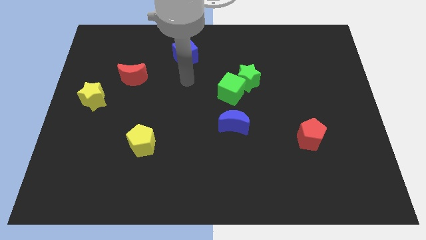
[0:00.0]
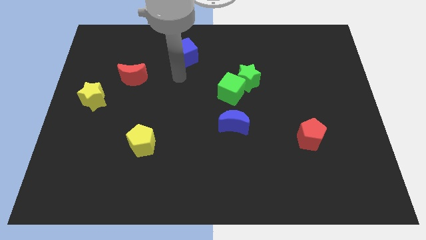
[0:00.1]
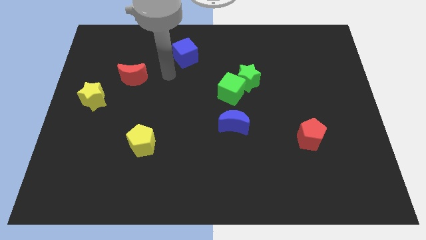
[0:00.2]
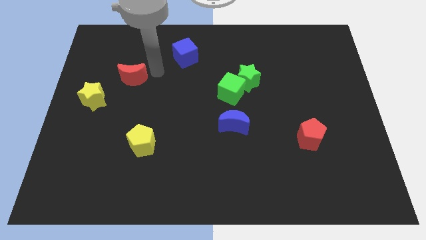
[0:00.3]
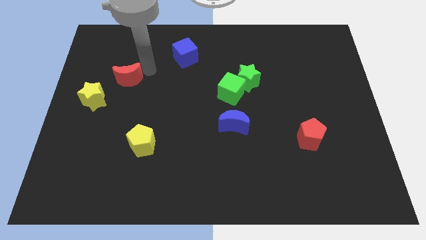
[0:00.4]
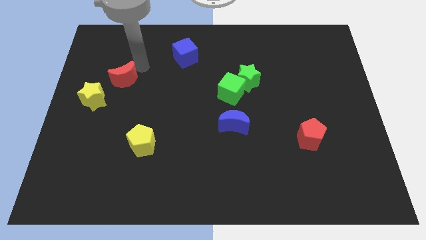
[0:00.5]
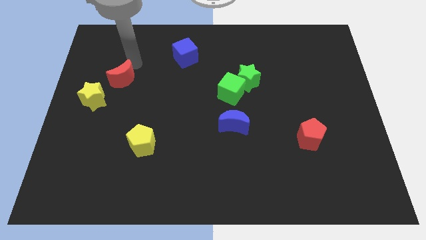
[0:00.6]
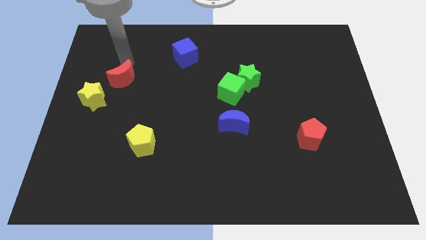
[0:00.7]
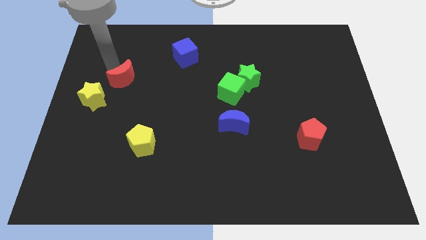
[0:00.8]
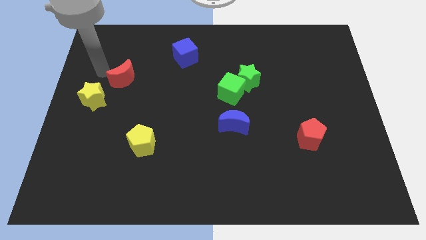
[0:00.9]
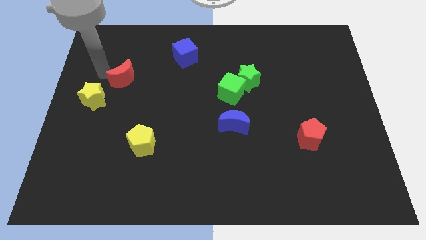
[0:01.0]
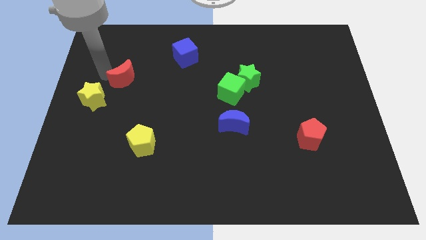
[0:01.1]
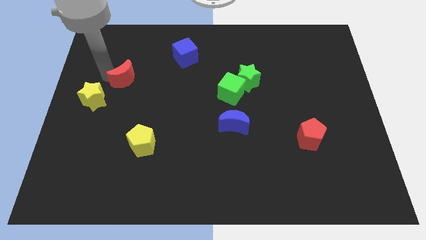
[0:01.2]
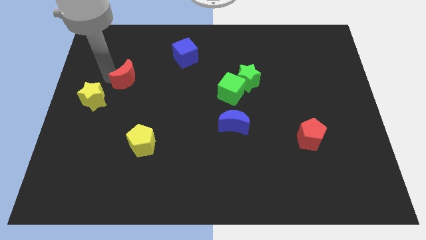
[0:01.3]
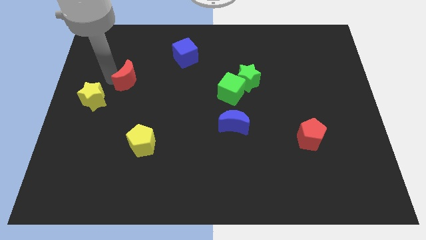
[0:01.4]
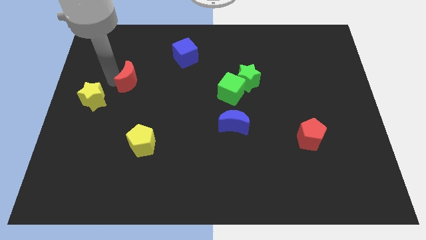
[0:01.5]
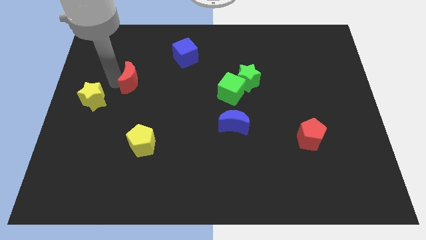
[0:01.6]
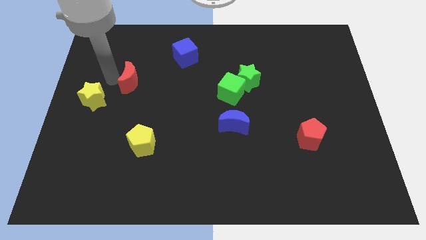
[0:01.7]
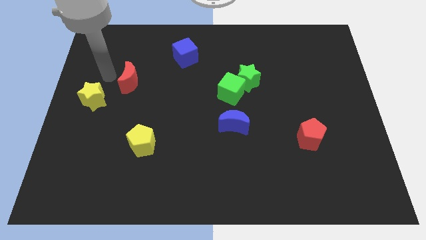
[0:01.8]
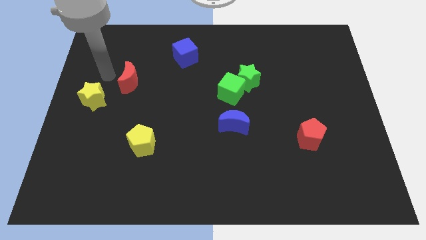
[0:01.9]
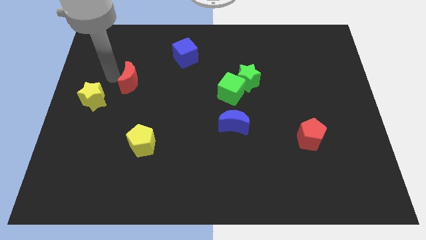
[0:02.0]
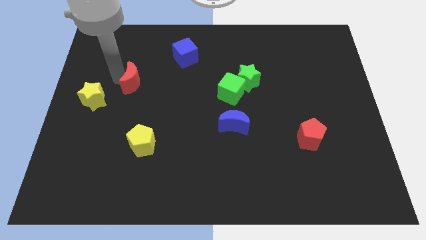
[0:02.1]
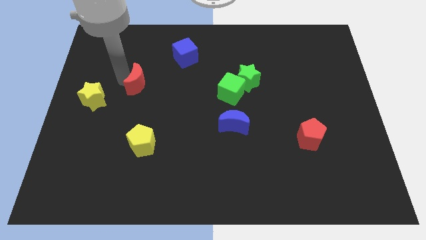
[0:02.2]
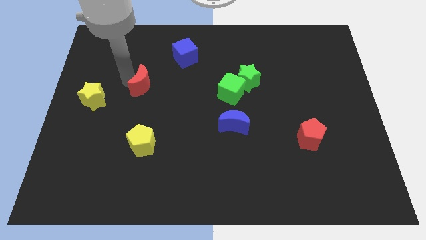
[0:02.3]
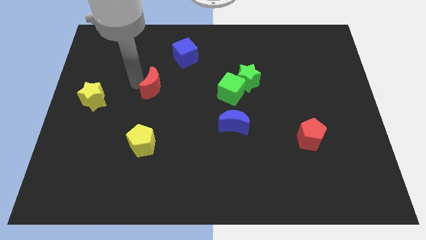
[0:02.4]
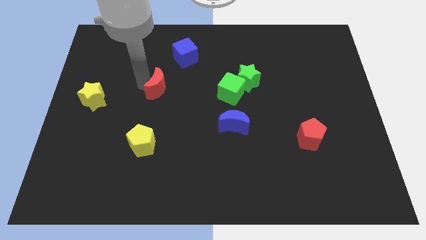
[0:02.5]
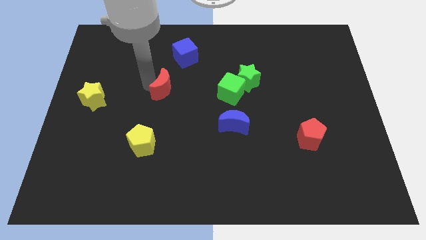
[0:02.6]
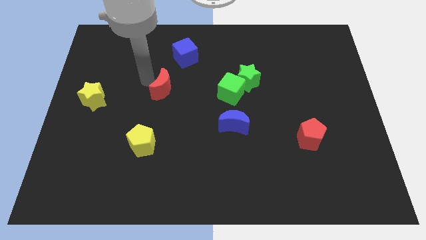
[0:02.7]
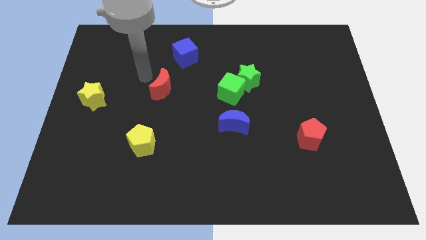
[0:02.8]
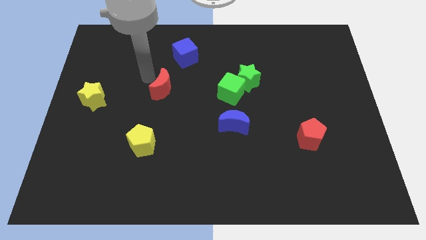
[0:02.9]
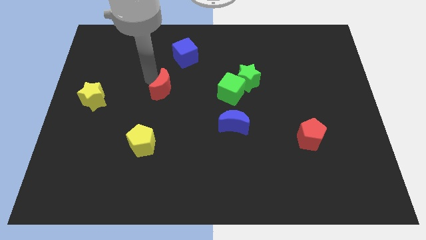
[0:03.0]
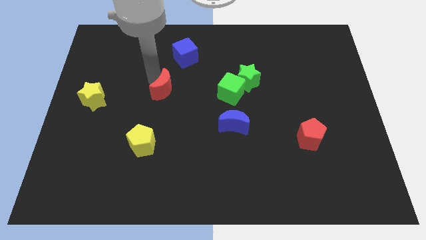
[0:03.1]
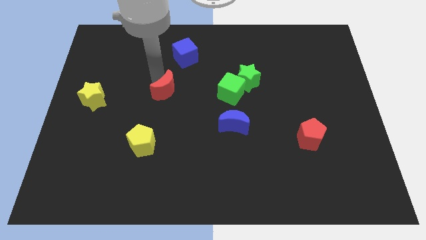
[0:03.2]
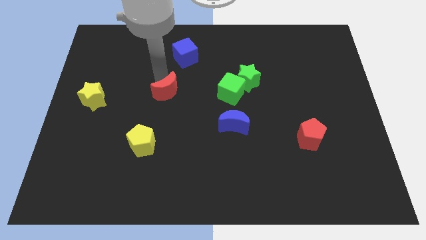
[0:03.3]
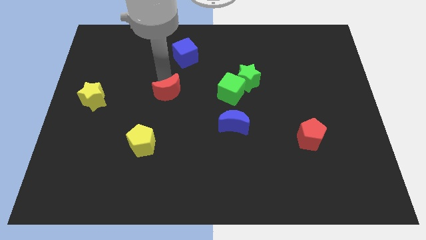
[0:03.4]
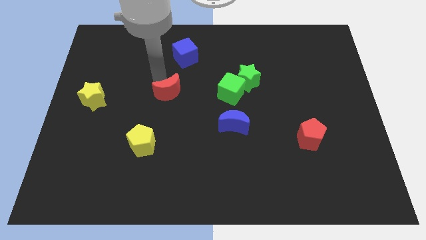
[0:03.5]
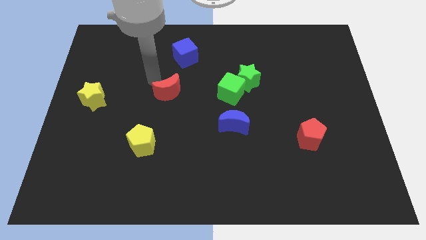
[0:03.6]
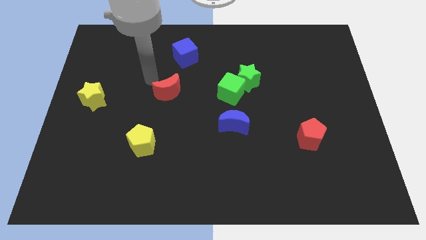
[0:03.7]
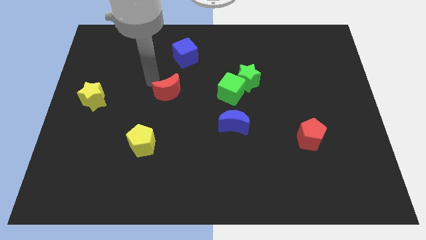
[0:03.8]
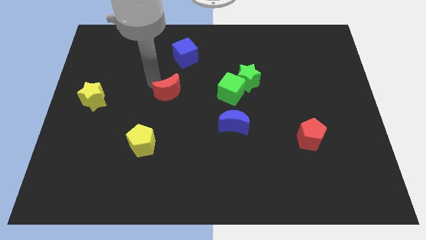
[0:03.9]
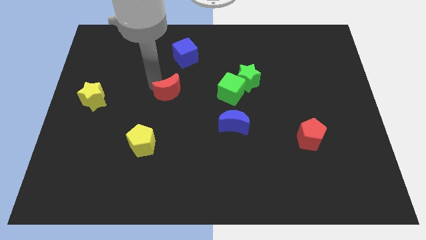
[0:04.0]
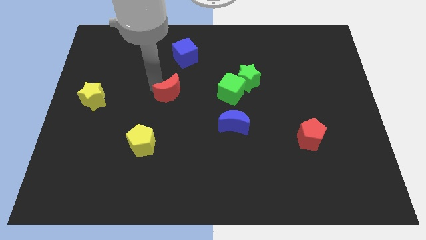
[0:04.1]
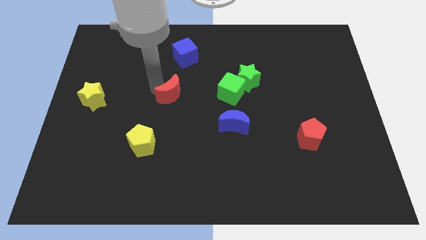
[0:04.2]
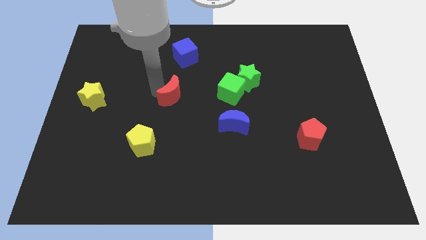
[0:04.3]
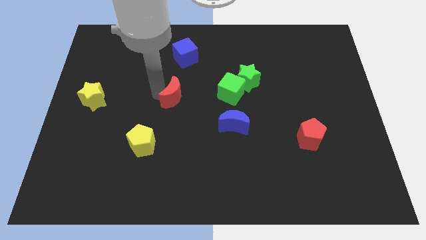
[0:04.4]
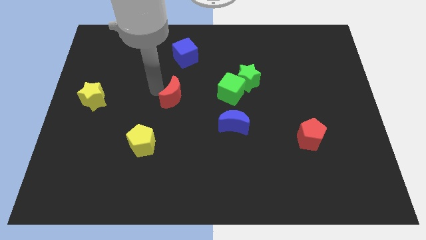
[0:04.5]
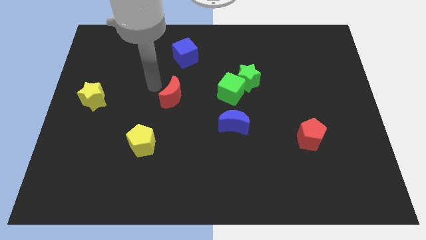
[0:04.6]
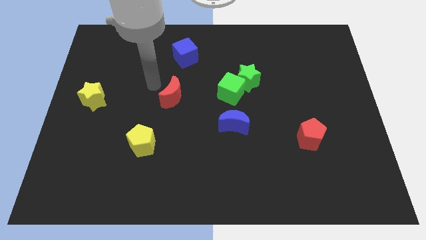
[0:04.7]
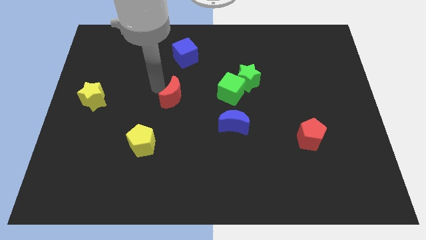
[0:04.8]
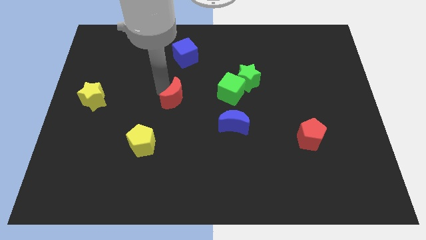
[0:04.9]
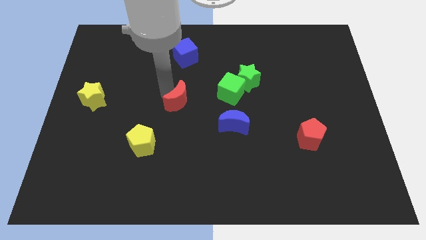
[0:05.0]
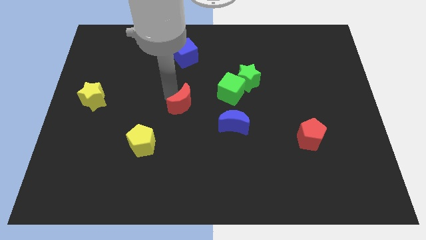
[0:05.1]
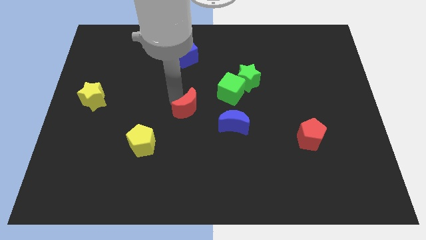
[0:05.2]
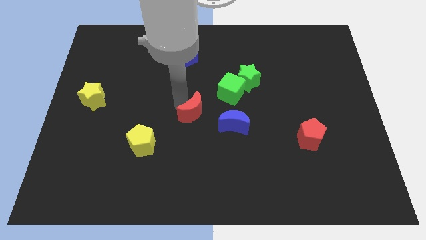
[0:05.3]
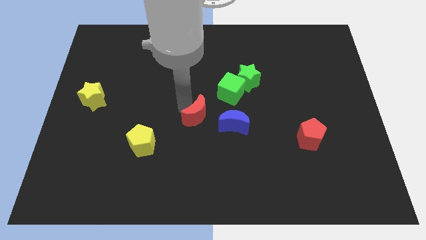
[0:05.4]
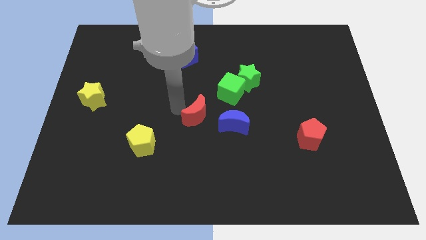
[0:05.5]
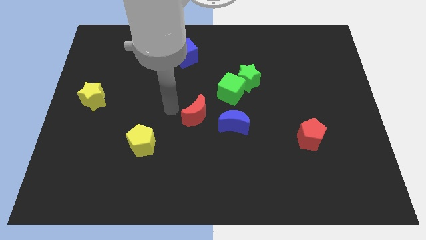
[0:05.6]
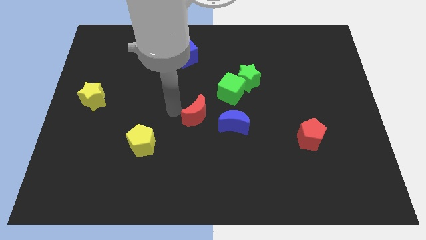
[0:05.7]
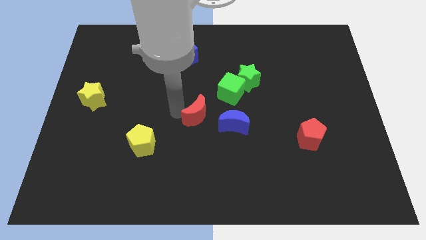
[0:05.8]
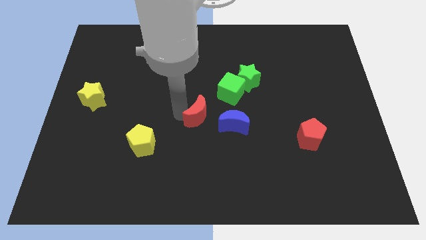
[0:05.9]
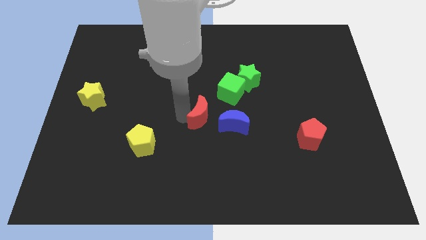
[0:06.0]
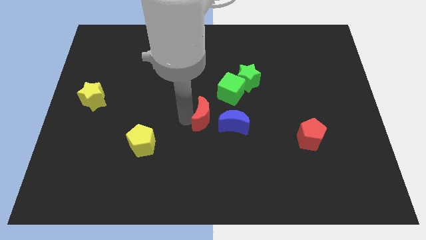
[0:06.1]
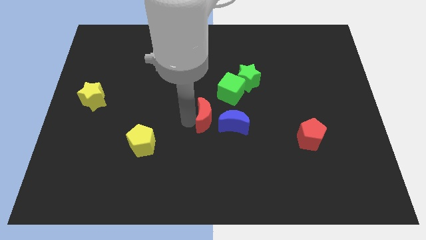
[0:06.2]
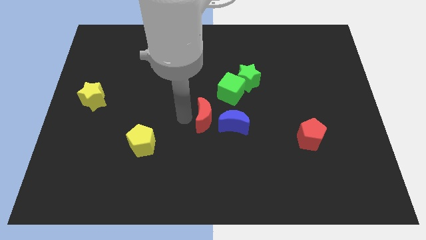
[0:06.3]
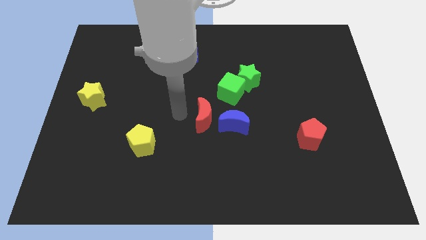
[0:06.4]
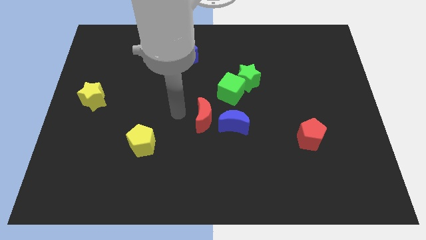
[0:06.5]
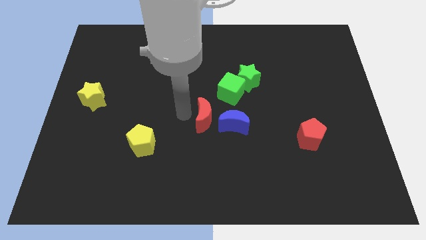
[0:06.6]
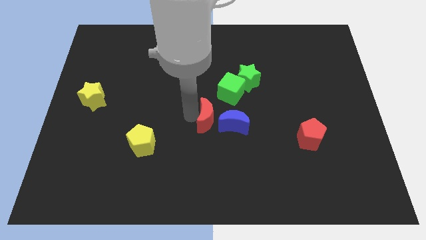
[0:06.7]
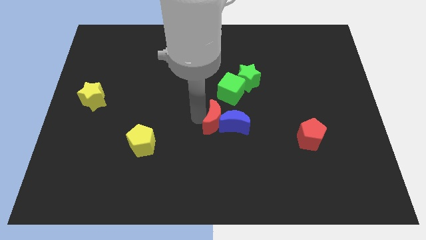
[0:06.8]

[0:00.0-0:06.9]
put the red moon close to the blue moon

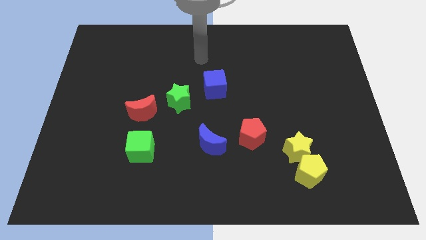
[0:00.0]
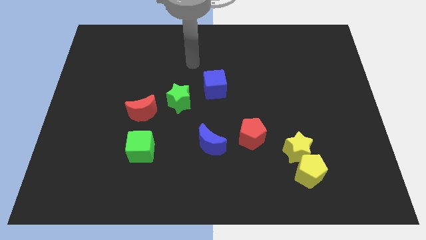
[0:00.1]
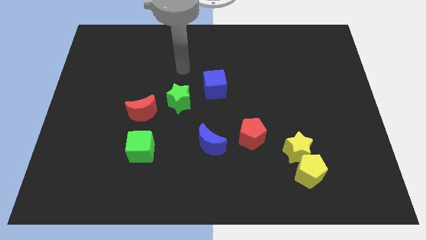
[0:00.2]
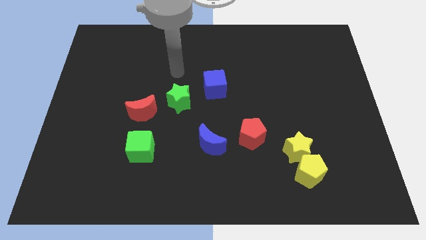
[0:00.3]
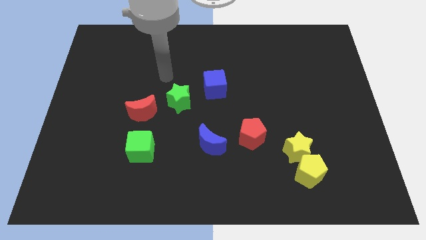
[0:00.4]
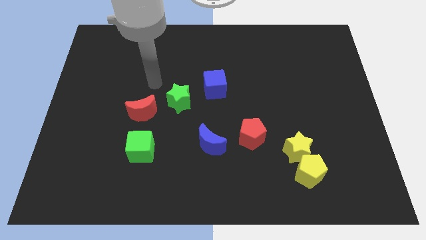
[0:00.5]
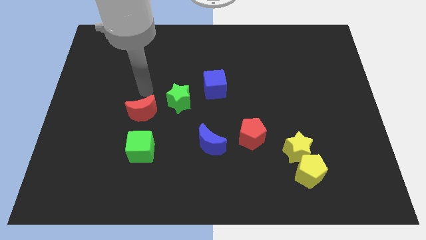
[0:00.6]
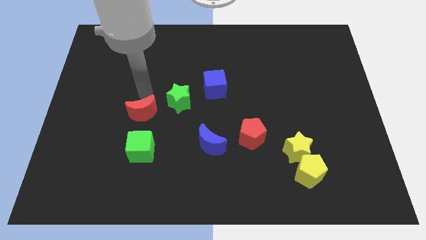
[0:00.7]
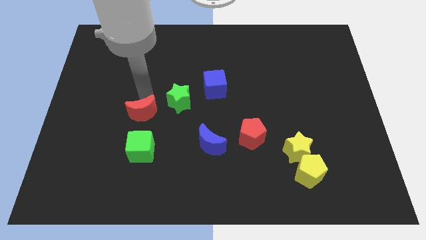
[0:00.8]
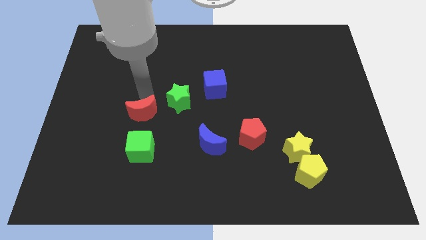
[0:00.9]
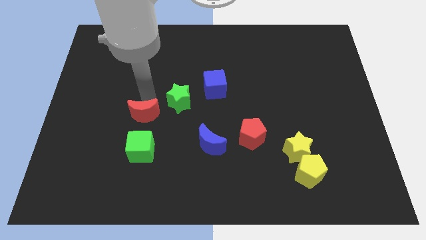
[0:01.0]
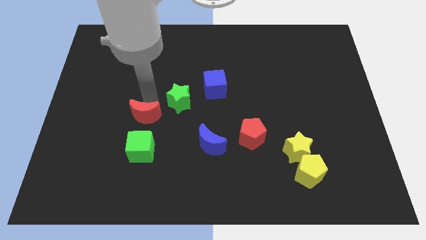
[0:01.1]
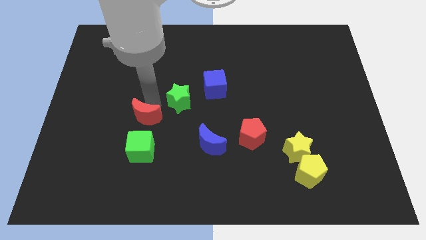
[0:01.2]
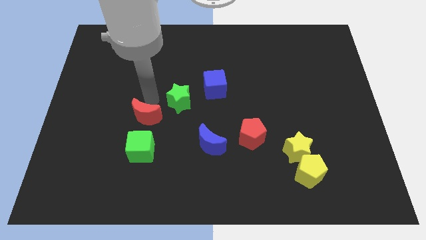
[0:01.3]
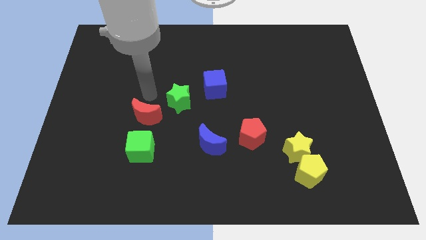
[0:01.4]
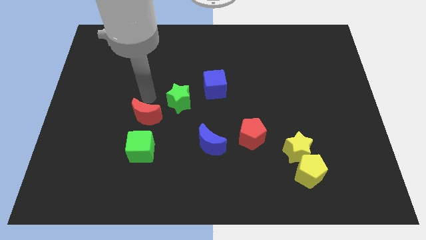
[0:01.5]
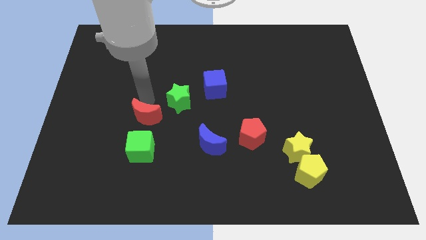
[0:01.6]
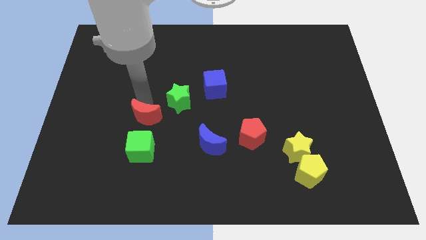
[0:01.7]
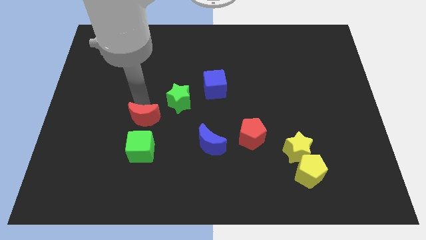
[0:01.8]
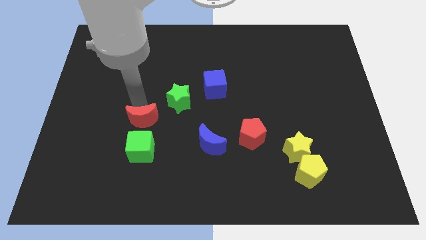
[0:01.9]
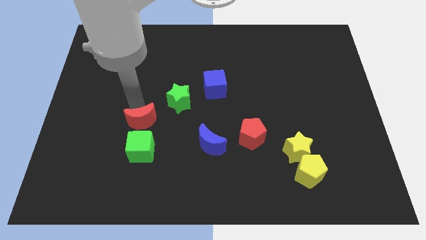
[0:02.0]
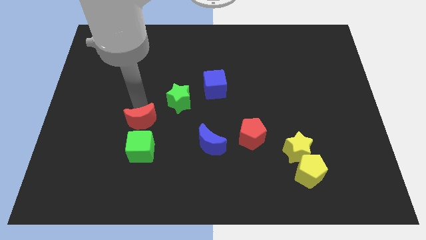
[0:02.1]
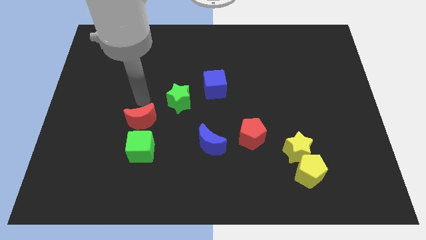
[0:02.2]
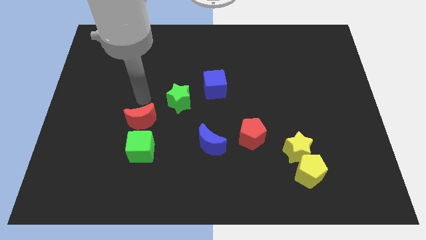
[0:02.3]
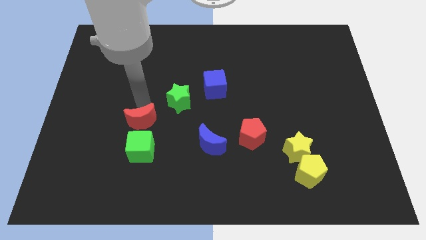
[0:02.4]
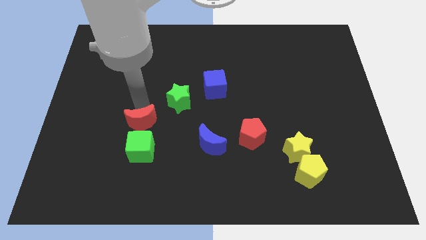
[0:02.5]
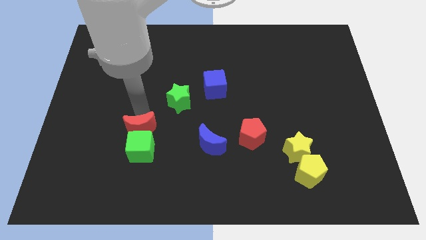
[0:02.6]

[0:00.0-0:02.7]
move the red moon close to the green cube
